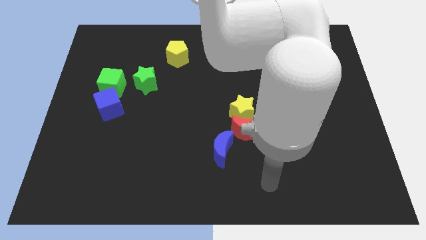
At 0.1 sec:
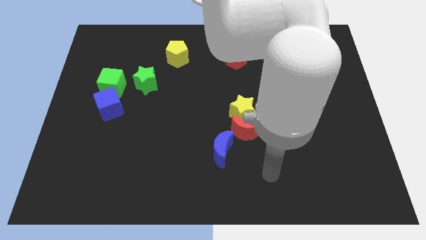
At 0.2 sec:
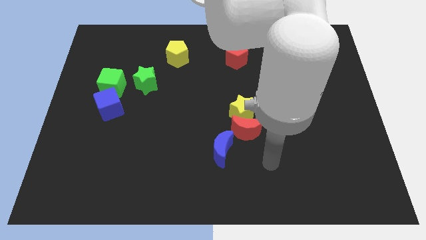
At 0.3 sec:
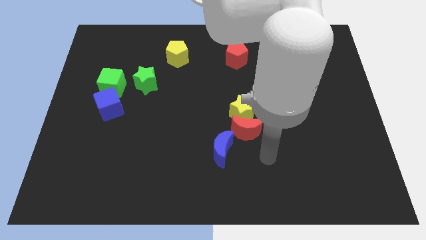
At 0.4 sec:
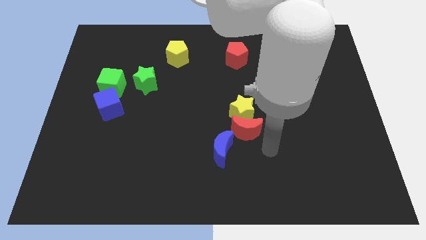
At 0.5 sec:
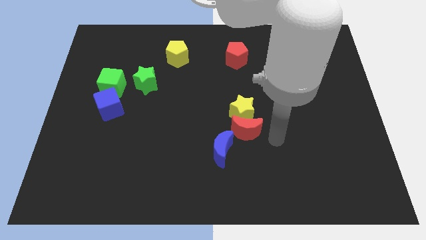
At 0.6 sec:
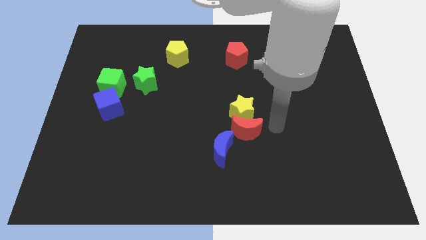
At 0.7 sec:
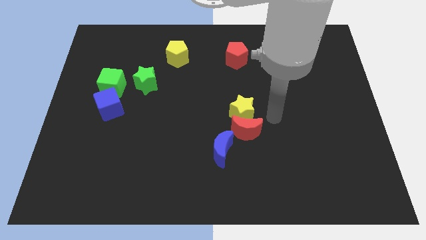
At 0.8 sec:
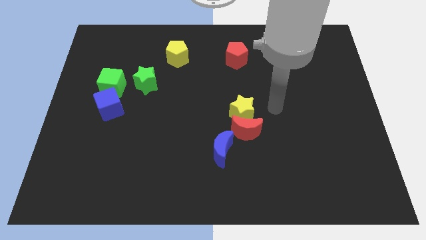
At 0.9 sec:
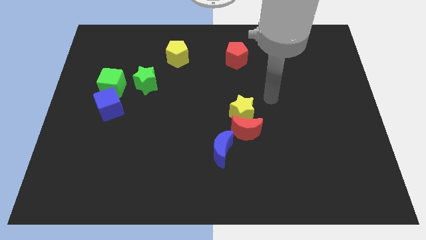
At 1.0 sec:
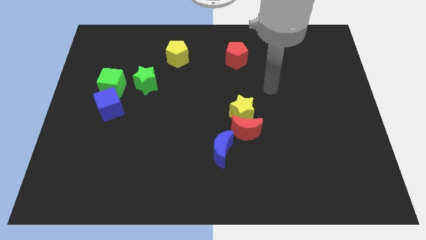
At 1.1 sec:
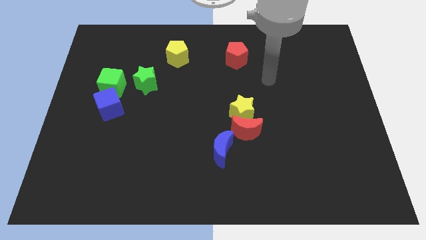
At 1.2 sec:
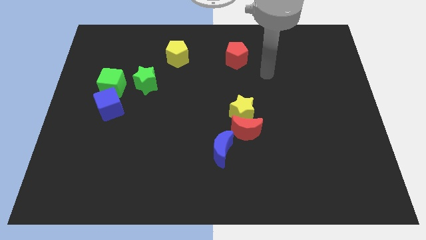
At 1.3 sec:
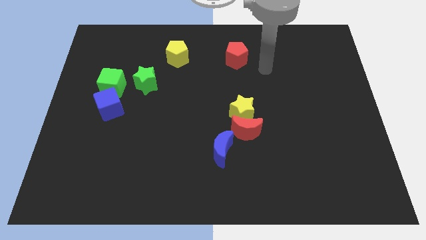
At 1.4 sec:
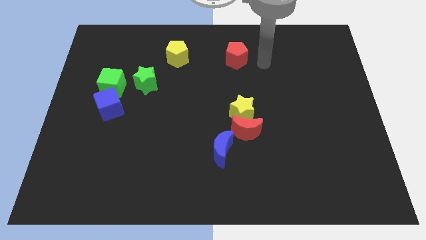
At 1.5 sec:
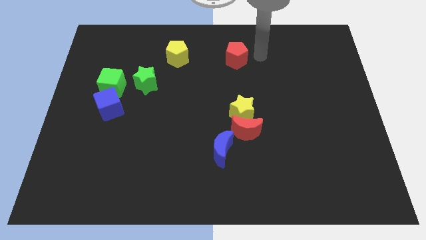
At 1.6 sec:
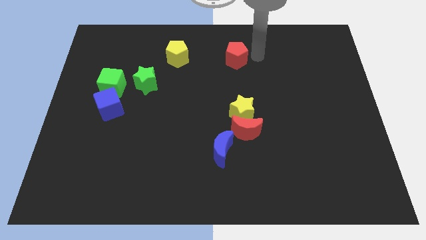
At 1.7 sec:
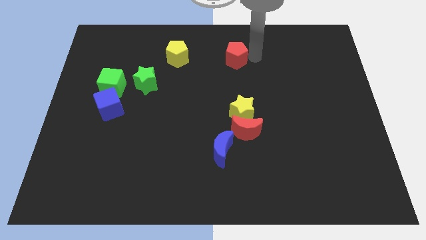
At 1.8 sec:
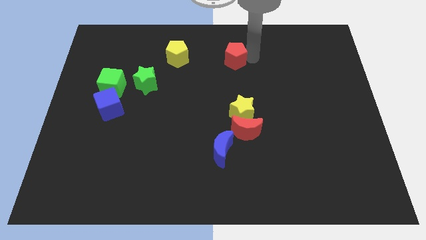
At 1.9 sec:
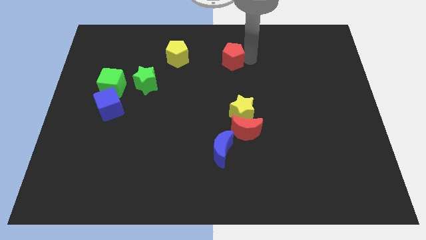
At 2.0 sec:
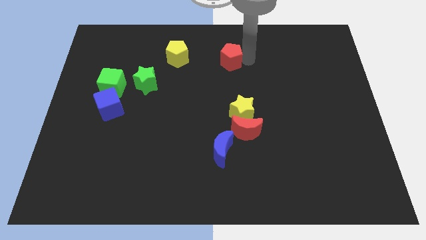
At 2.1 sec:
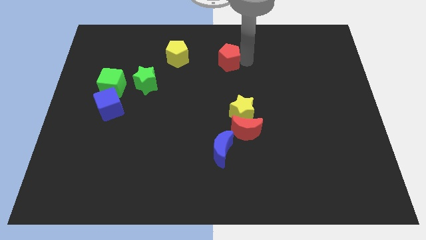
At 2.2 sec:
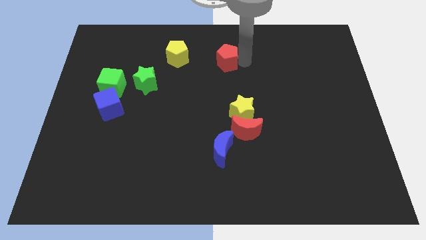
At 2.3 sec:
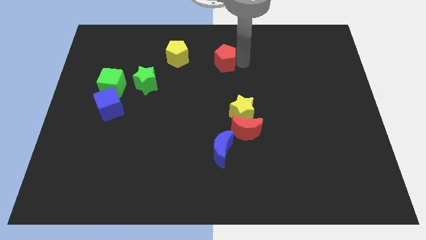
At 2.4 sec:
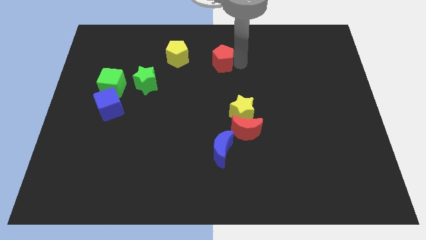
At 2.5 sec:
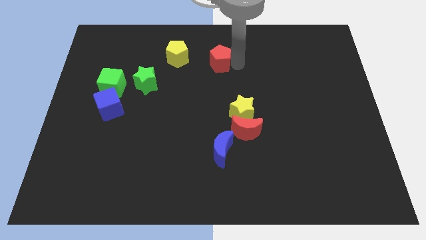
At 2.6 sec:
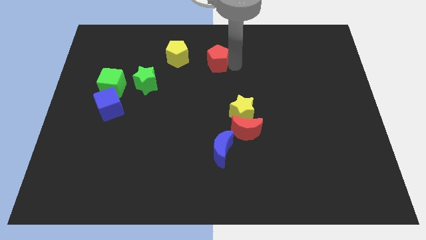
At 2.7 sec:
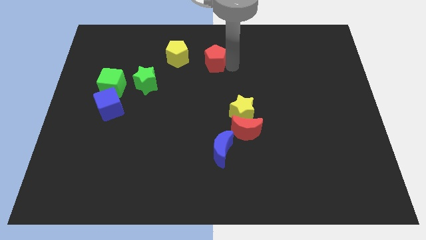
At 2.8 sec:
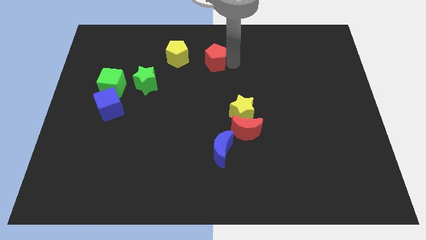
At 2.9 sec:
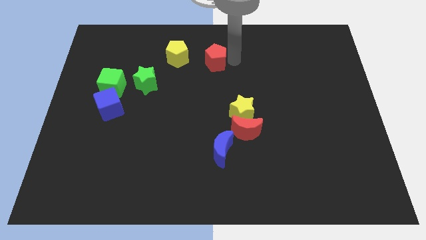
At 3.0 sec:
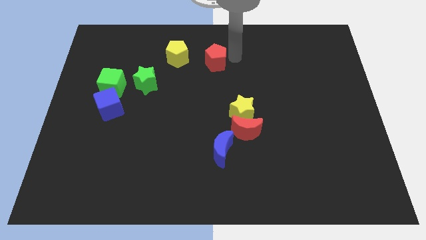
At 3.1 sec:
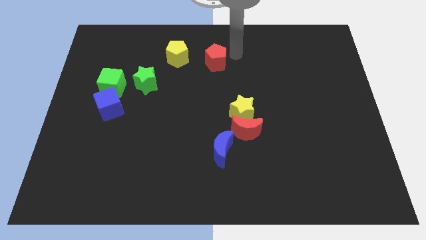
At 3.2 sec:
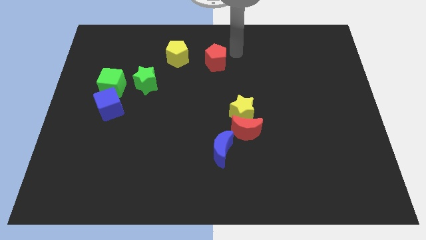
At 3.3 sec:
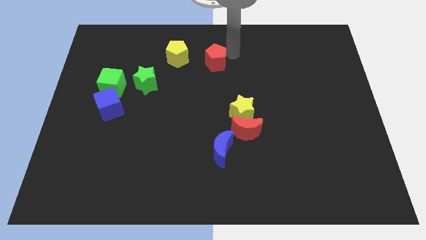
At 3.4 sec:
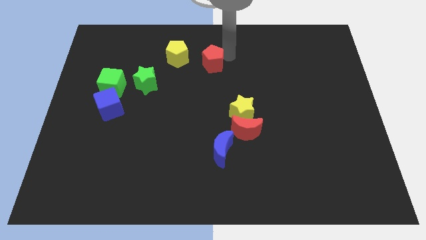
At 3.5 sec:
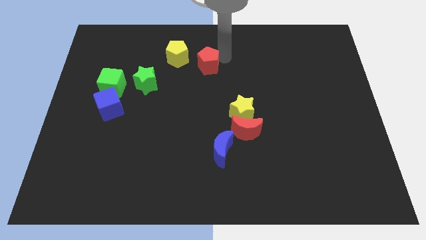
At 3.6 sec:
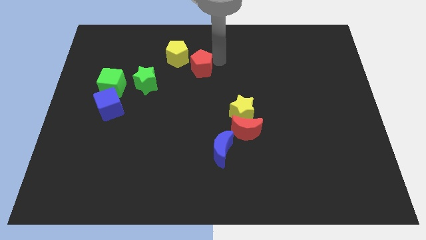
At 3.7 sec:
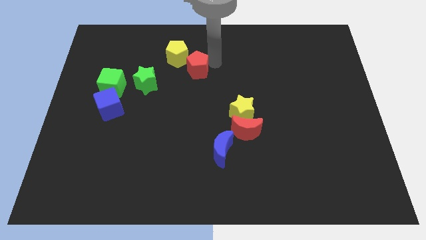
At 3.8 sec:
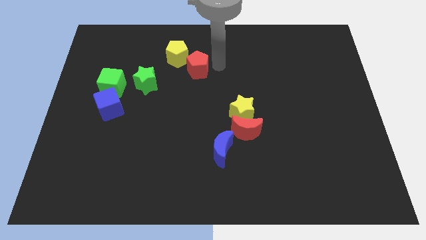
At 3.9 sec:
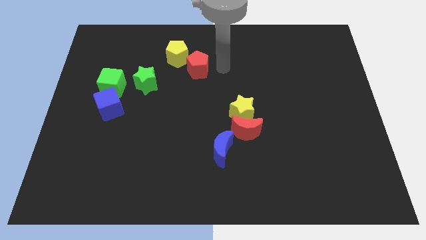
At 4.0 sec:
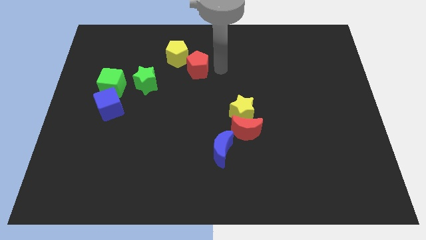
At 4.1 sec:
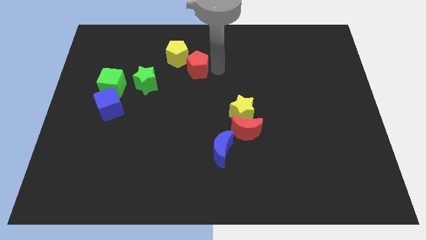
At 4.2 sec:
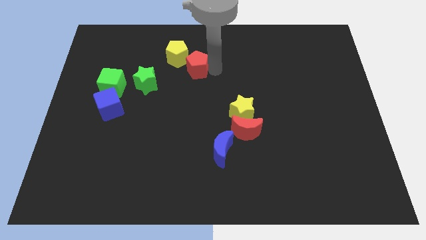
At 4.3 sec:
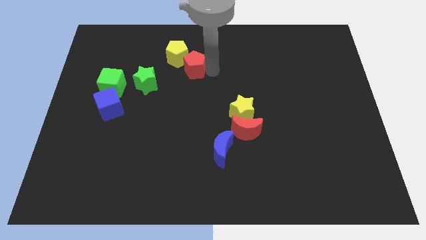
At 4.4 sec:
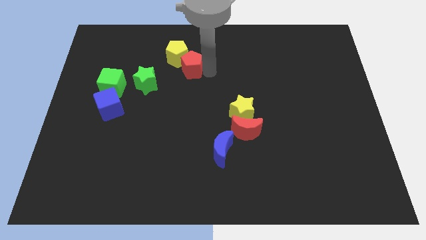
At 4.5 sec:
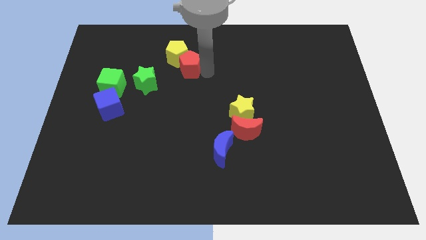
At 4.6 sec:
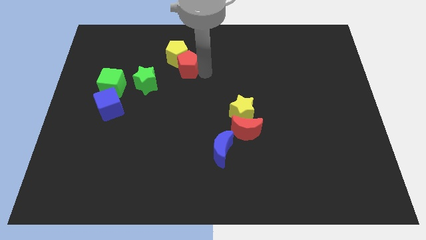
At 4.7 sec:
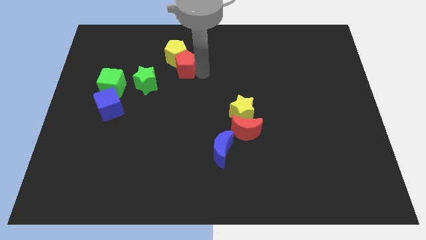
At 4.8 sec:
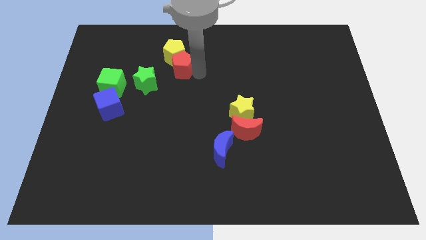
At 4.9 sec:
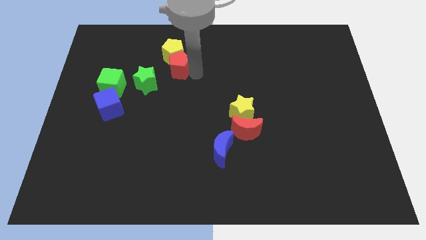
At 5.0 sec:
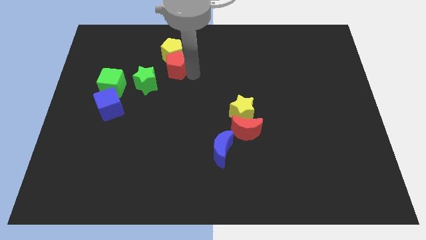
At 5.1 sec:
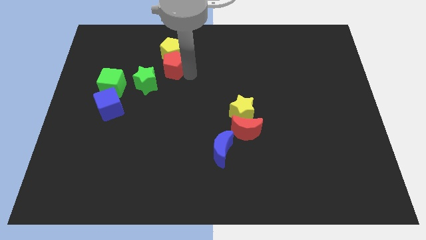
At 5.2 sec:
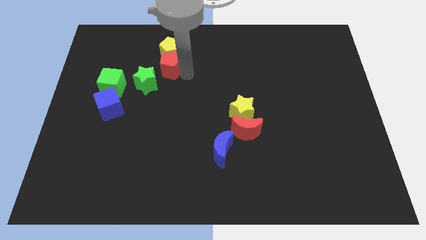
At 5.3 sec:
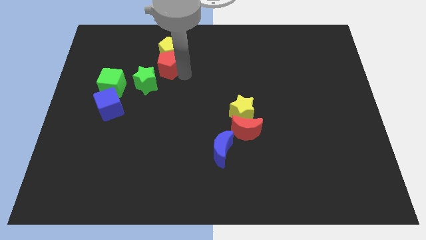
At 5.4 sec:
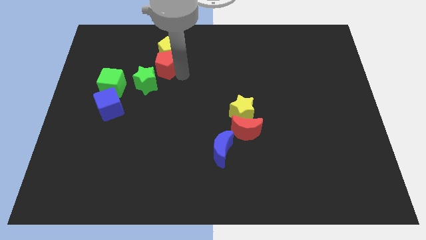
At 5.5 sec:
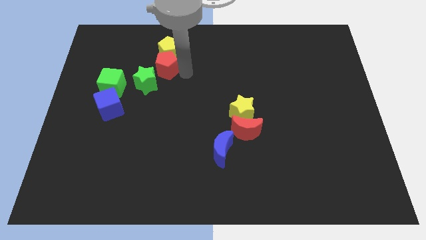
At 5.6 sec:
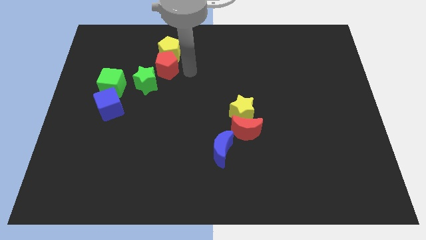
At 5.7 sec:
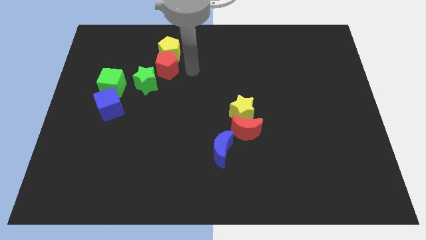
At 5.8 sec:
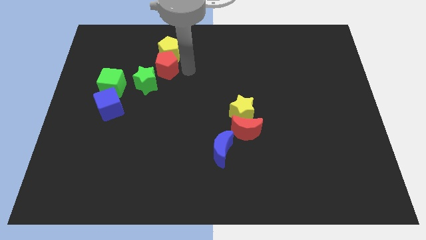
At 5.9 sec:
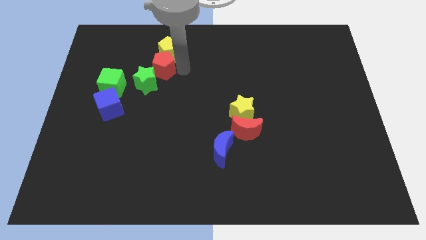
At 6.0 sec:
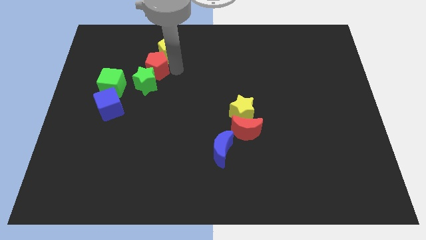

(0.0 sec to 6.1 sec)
slide the red pentagon left

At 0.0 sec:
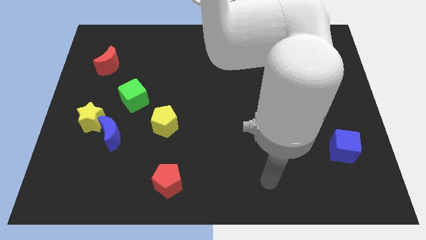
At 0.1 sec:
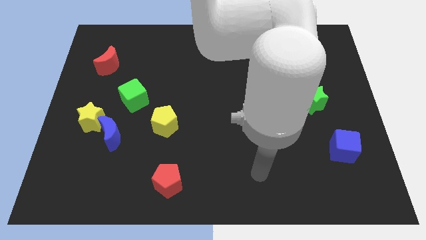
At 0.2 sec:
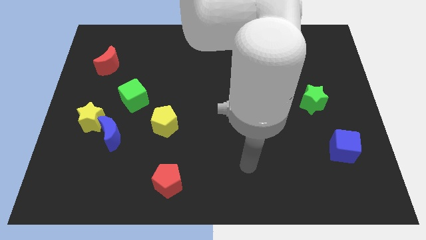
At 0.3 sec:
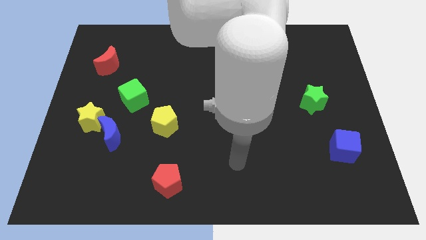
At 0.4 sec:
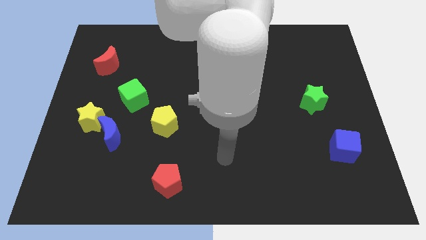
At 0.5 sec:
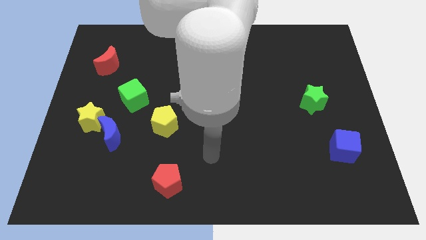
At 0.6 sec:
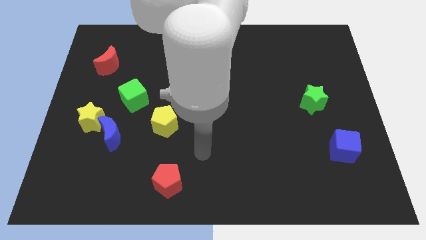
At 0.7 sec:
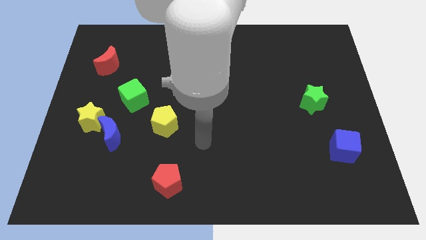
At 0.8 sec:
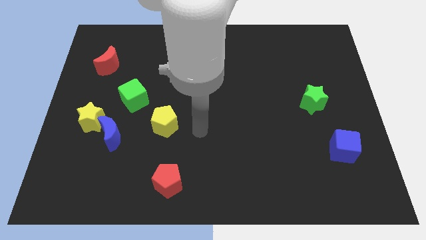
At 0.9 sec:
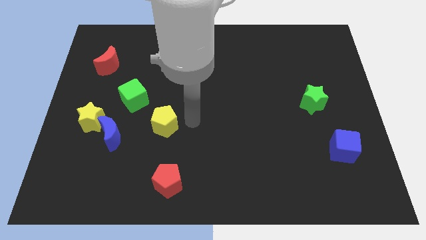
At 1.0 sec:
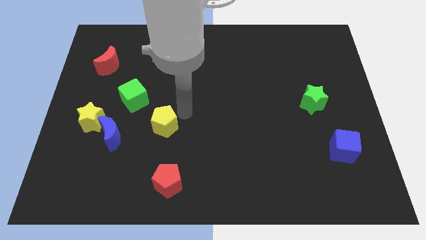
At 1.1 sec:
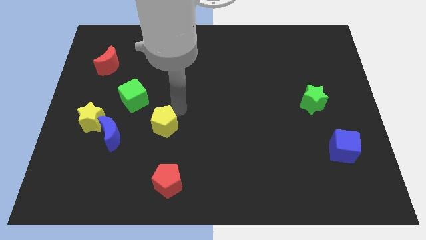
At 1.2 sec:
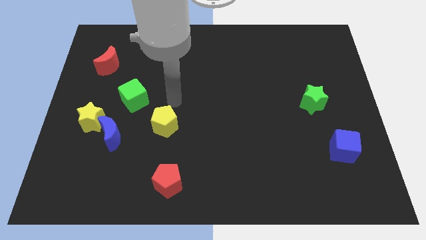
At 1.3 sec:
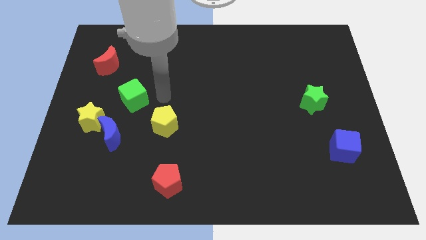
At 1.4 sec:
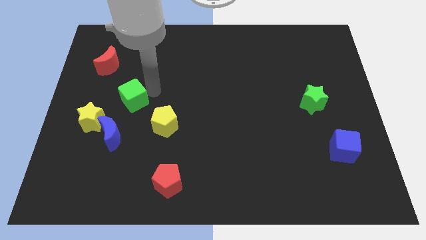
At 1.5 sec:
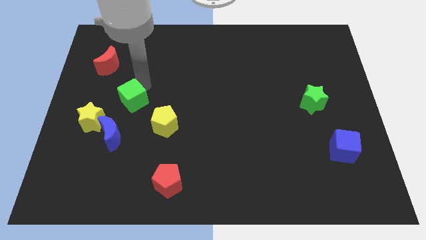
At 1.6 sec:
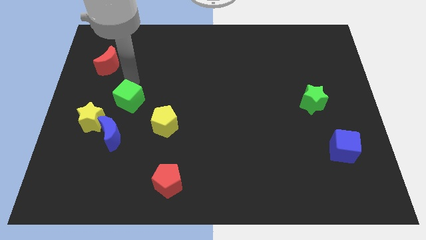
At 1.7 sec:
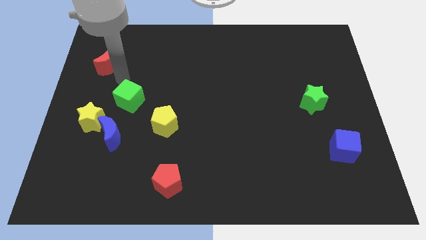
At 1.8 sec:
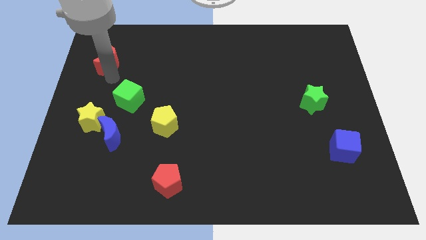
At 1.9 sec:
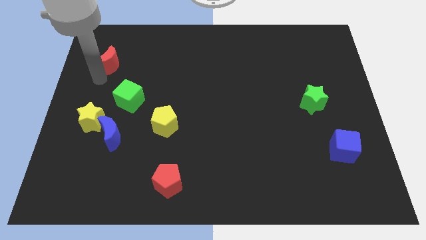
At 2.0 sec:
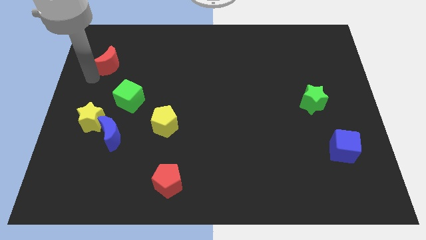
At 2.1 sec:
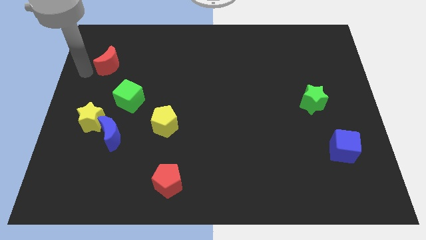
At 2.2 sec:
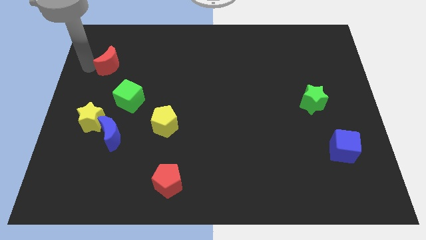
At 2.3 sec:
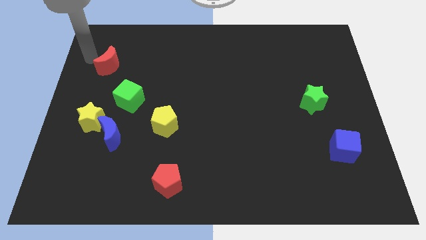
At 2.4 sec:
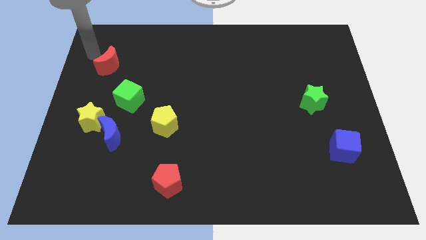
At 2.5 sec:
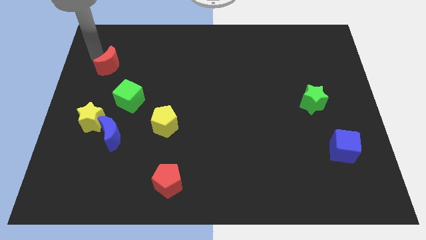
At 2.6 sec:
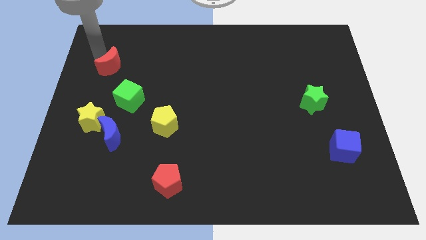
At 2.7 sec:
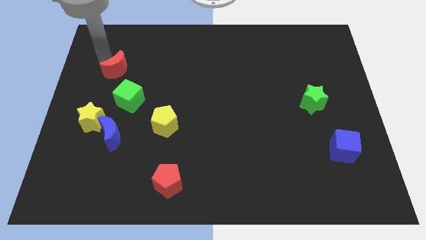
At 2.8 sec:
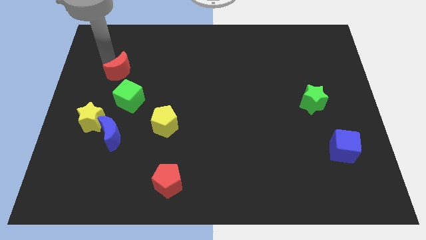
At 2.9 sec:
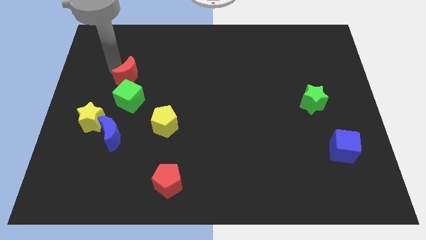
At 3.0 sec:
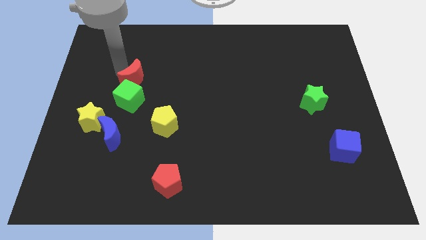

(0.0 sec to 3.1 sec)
move the red moon somewhat downwards and then to the right
